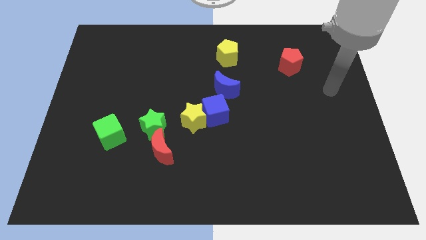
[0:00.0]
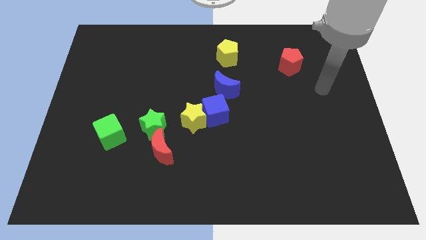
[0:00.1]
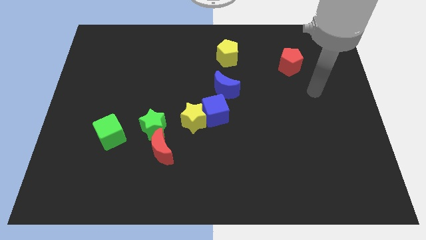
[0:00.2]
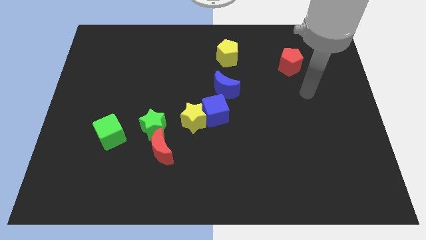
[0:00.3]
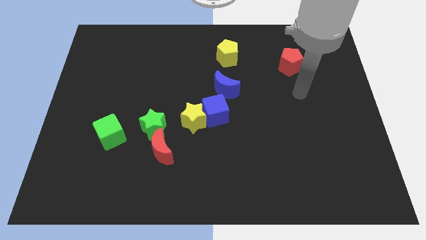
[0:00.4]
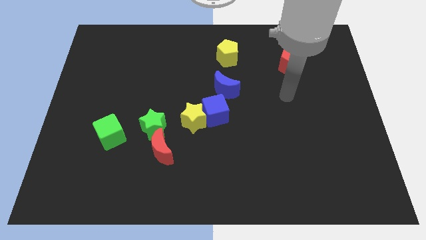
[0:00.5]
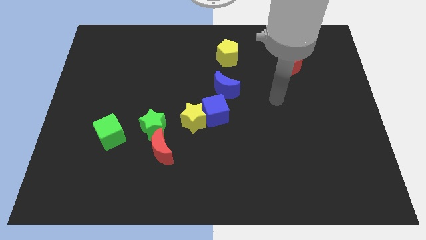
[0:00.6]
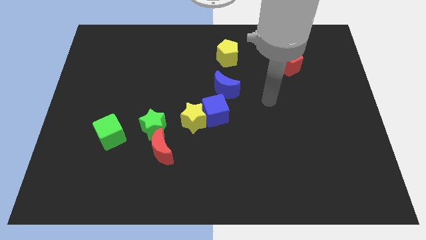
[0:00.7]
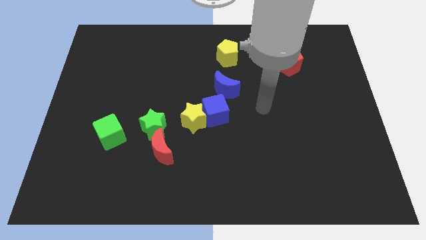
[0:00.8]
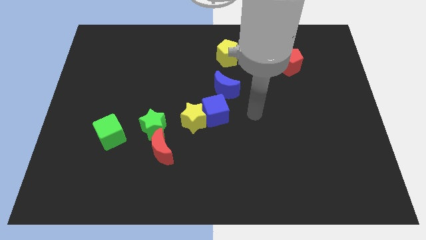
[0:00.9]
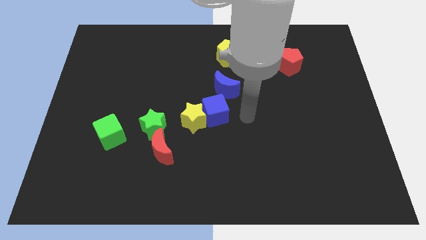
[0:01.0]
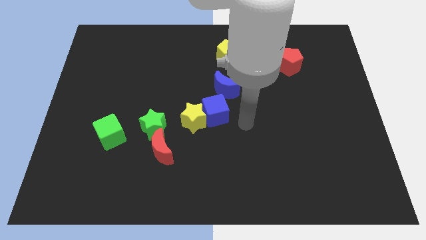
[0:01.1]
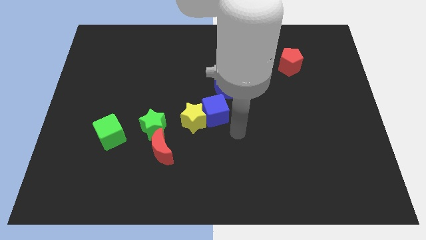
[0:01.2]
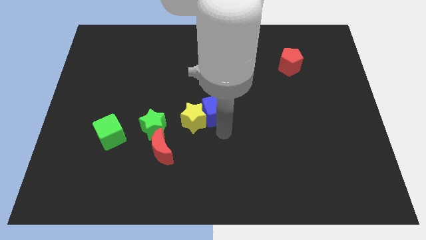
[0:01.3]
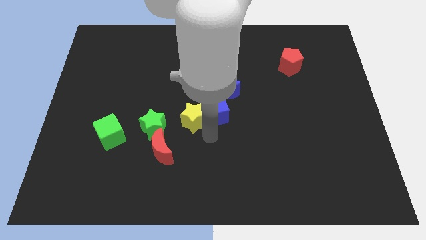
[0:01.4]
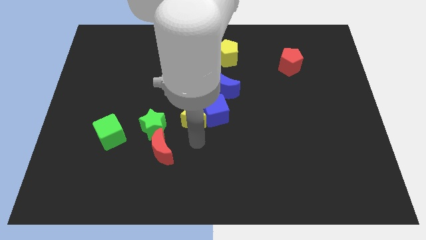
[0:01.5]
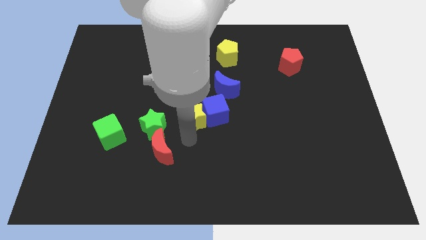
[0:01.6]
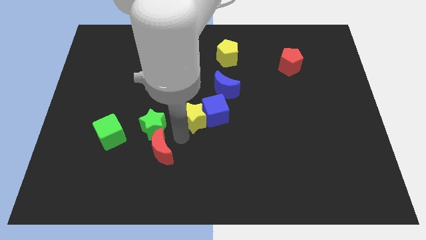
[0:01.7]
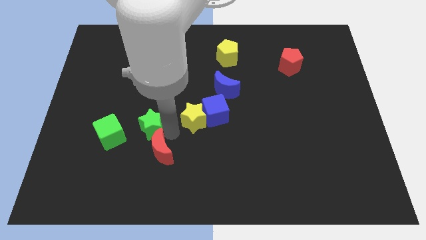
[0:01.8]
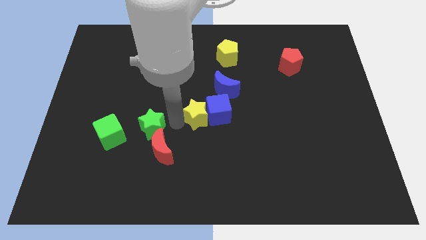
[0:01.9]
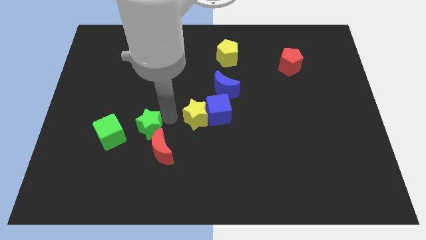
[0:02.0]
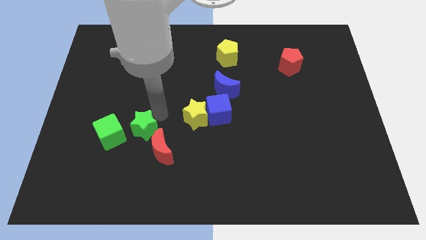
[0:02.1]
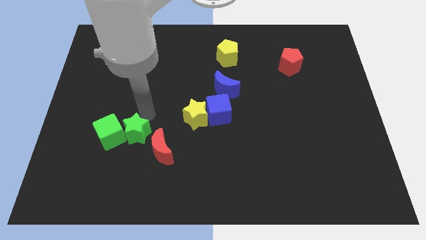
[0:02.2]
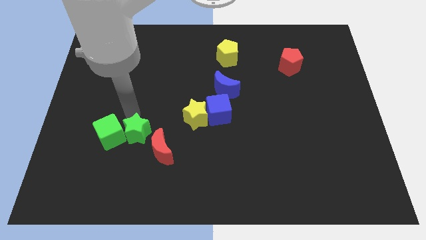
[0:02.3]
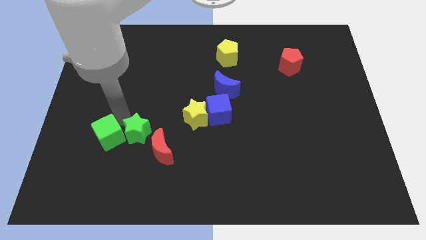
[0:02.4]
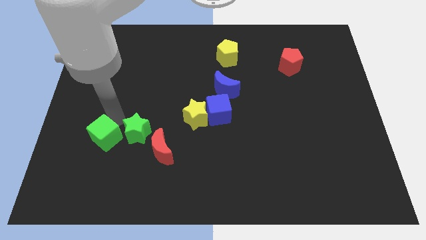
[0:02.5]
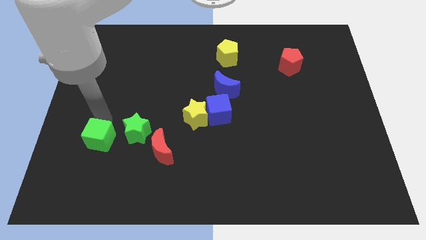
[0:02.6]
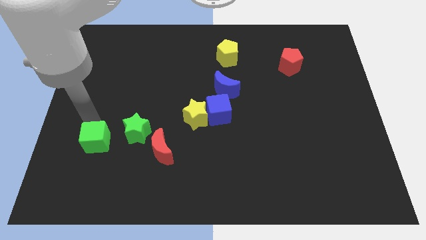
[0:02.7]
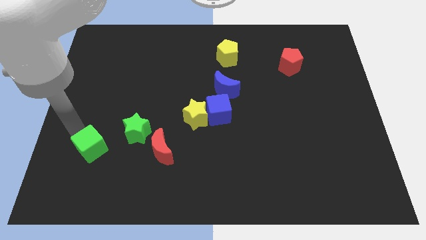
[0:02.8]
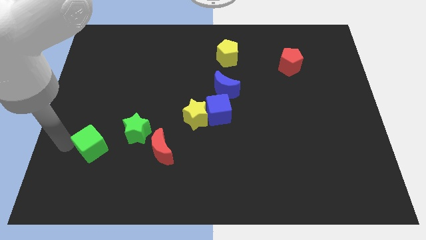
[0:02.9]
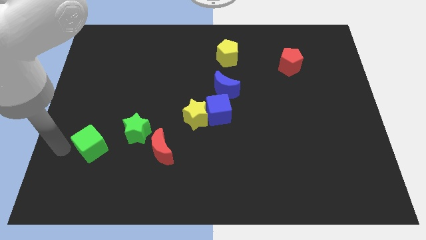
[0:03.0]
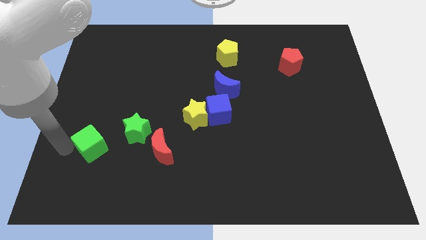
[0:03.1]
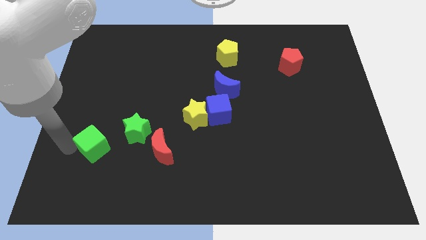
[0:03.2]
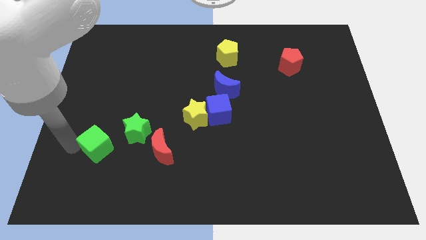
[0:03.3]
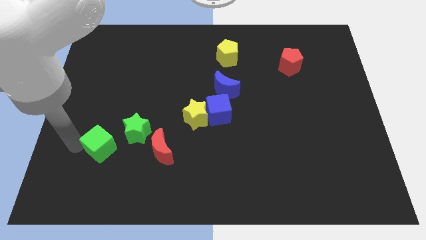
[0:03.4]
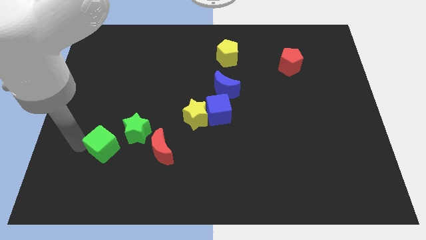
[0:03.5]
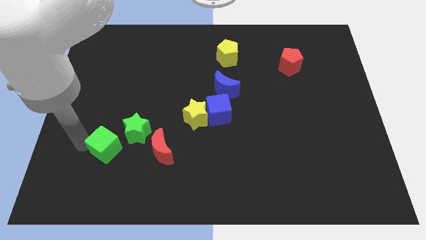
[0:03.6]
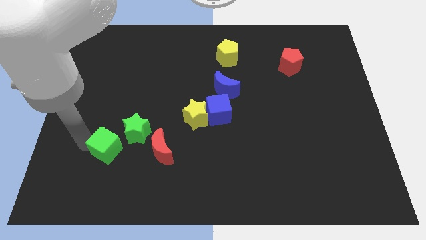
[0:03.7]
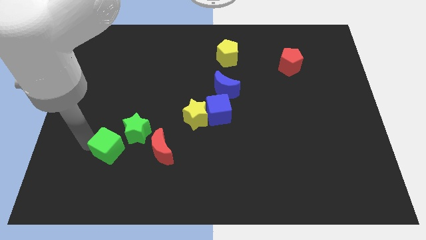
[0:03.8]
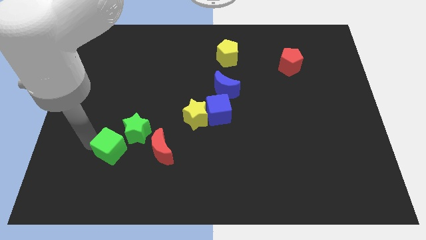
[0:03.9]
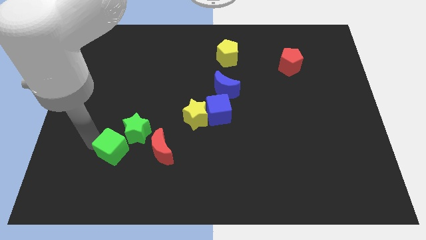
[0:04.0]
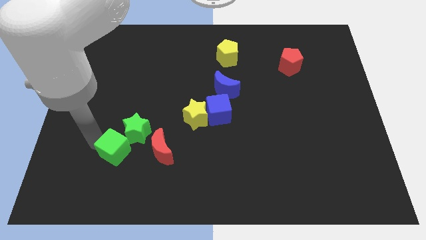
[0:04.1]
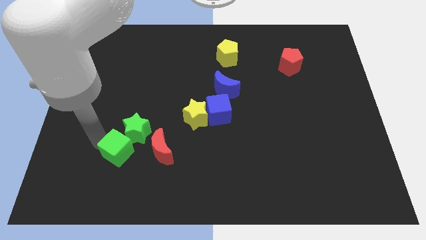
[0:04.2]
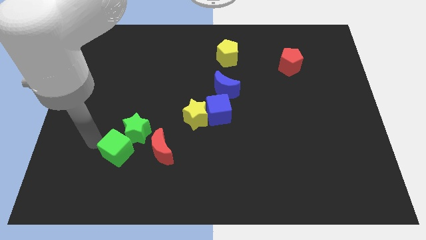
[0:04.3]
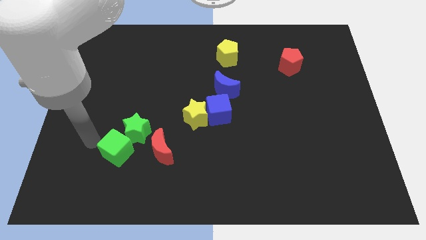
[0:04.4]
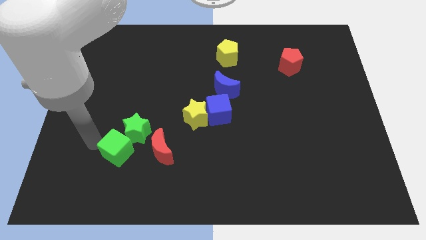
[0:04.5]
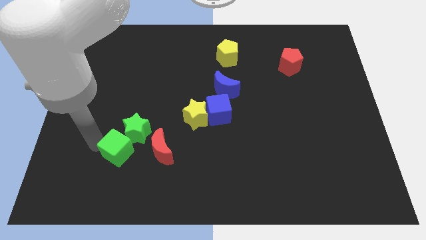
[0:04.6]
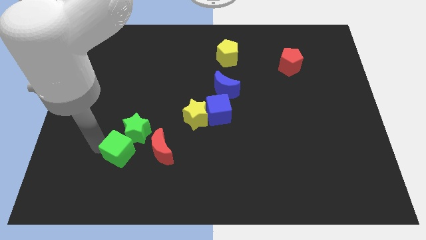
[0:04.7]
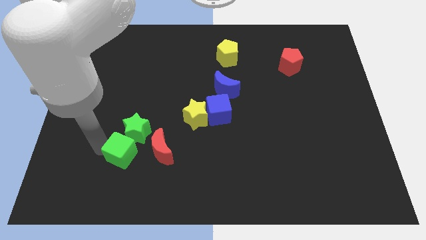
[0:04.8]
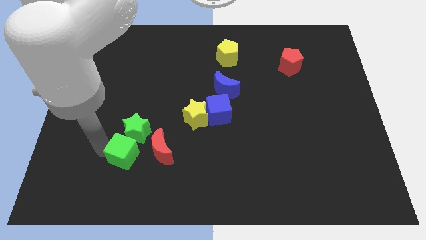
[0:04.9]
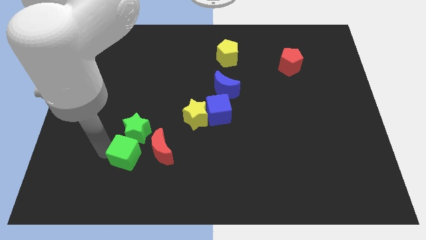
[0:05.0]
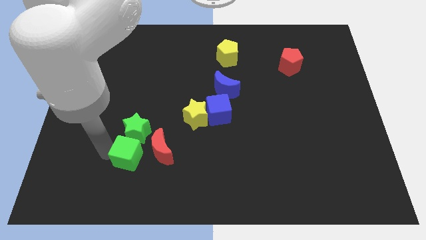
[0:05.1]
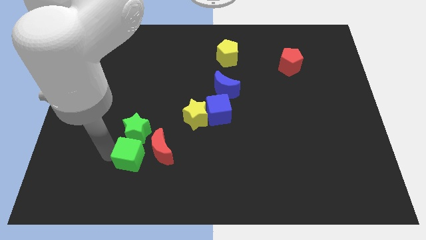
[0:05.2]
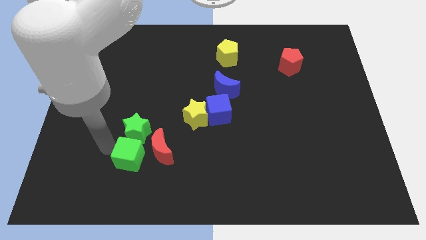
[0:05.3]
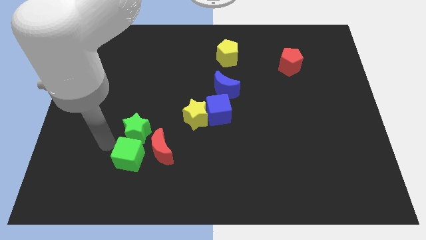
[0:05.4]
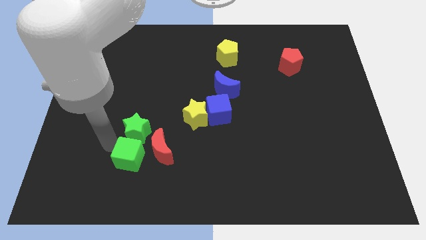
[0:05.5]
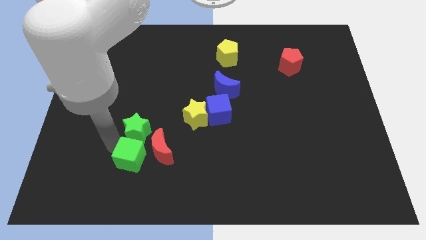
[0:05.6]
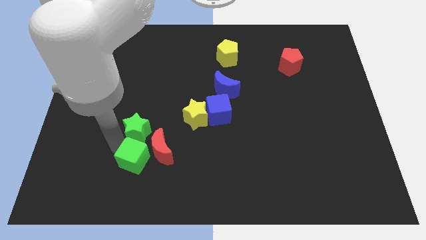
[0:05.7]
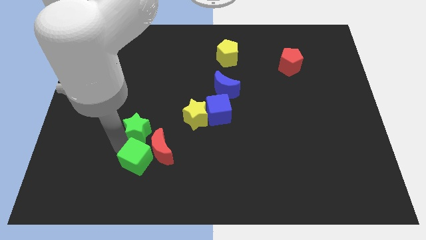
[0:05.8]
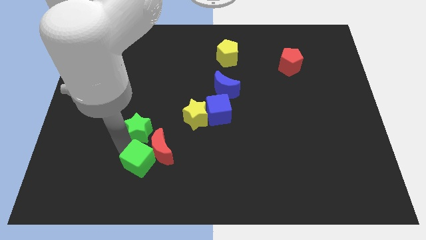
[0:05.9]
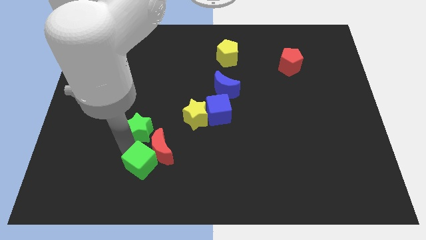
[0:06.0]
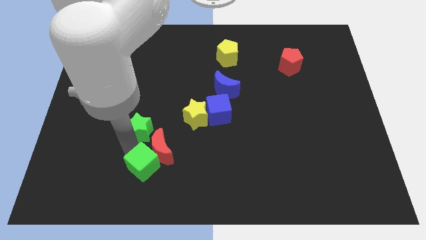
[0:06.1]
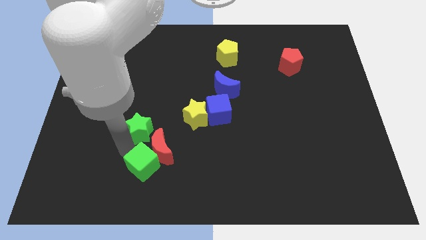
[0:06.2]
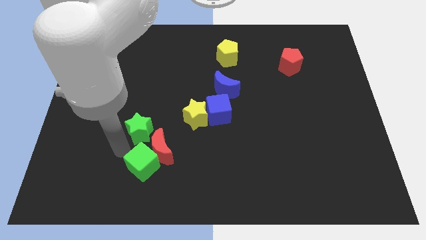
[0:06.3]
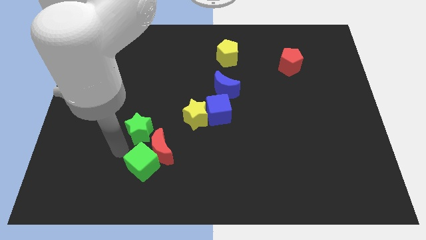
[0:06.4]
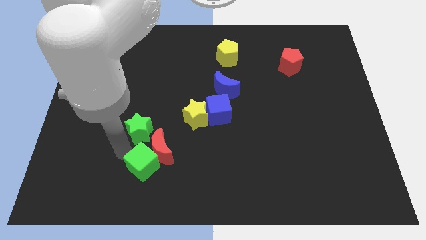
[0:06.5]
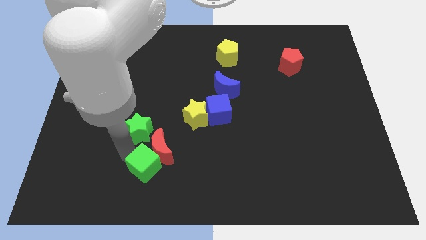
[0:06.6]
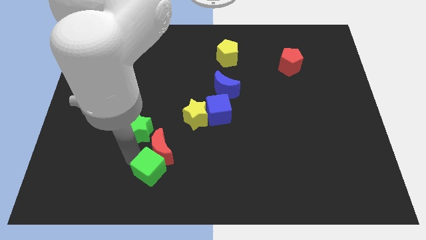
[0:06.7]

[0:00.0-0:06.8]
slide the green cube diagonally down and to the right of the red moon
